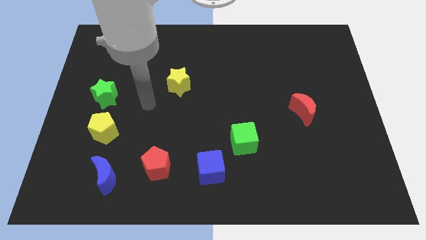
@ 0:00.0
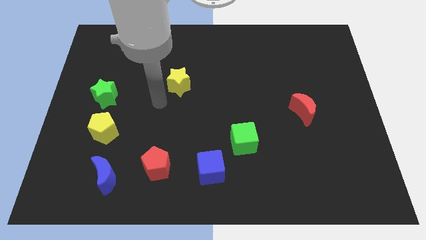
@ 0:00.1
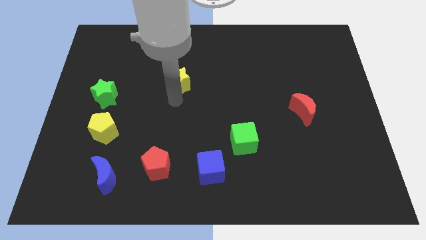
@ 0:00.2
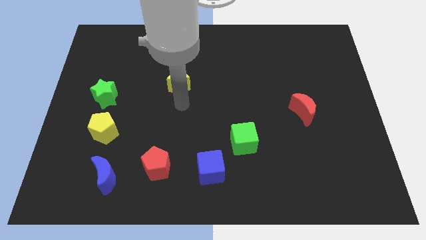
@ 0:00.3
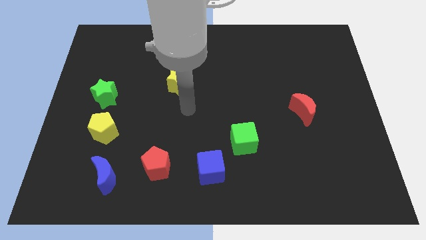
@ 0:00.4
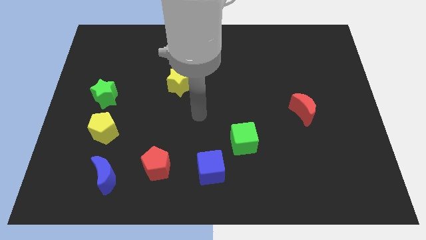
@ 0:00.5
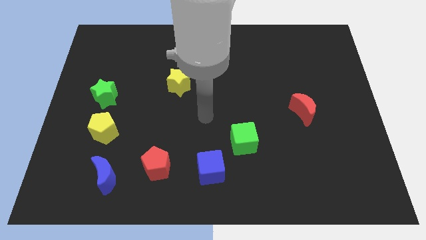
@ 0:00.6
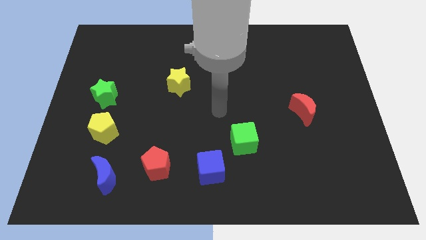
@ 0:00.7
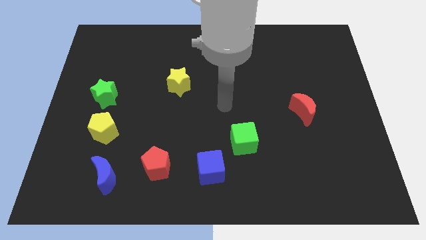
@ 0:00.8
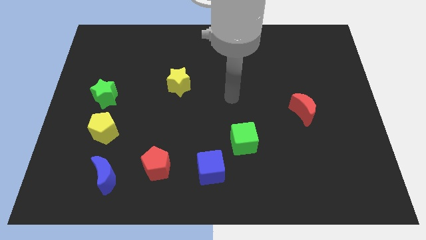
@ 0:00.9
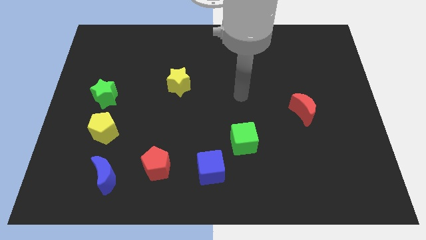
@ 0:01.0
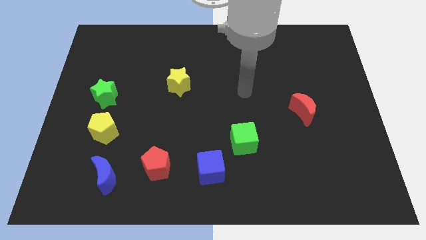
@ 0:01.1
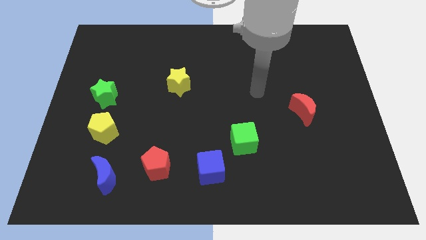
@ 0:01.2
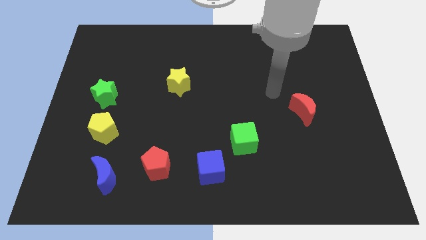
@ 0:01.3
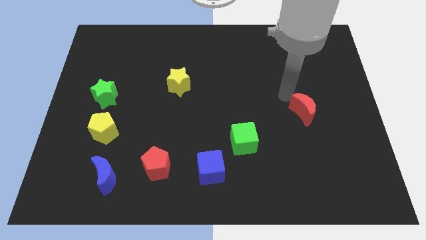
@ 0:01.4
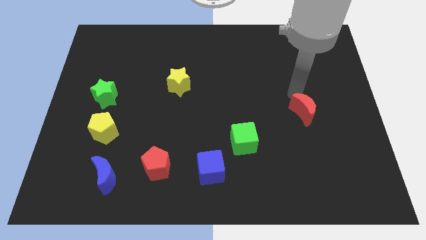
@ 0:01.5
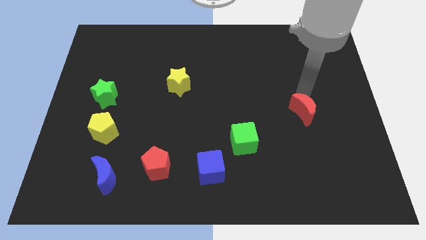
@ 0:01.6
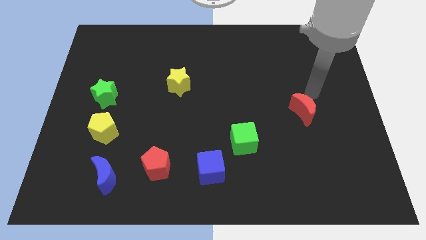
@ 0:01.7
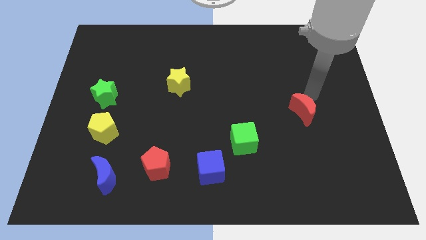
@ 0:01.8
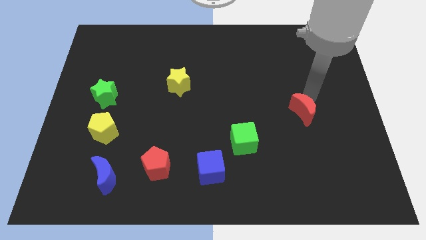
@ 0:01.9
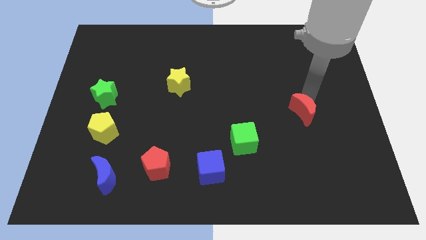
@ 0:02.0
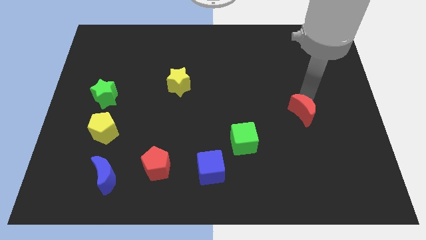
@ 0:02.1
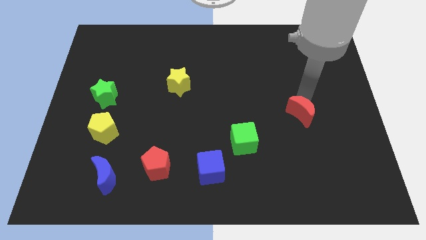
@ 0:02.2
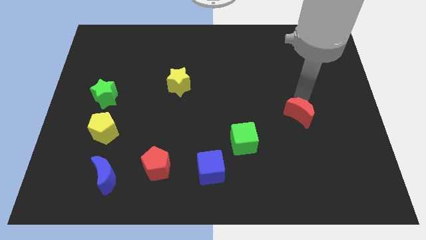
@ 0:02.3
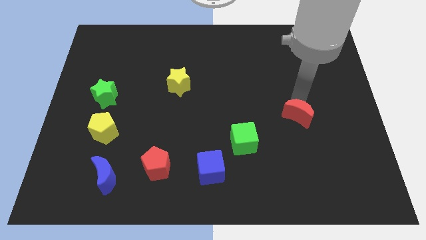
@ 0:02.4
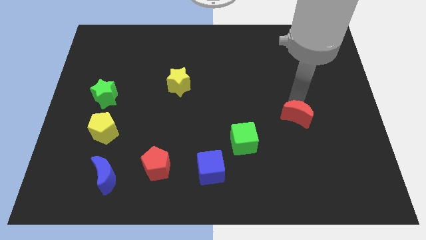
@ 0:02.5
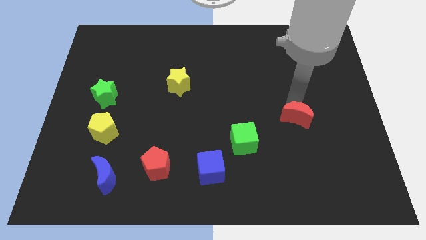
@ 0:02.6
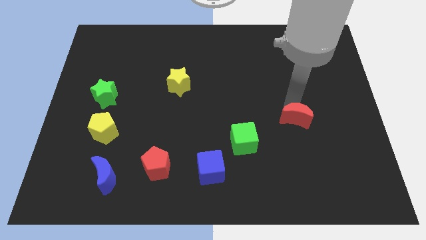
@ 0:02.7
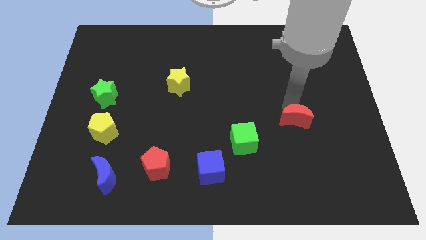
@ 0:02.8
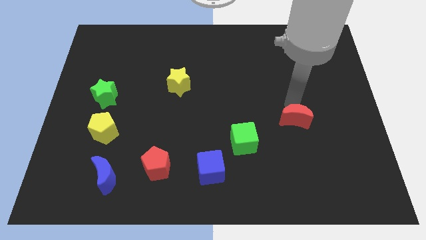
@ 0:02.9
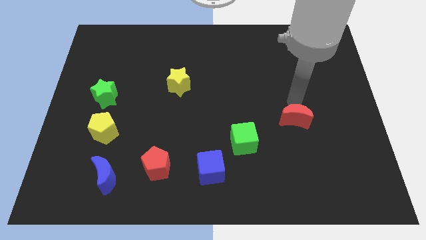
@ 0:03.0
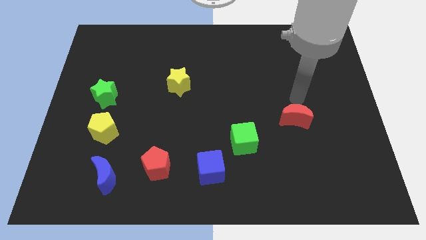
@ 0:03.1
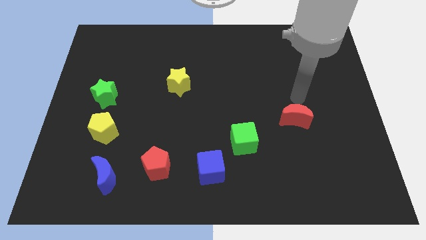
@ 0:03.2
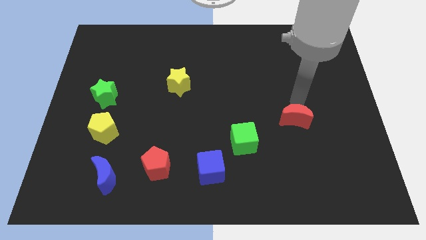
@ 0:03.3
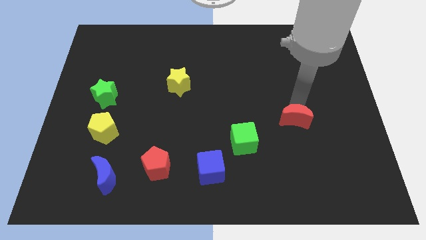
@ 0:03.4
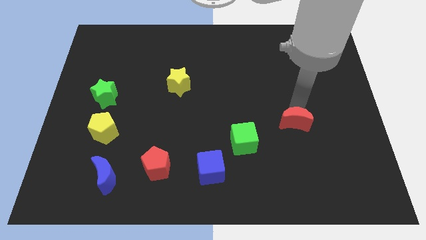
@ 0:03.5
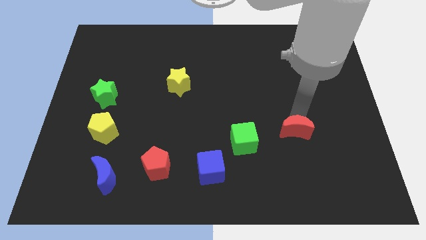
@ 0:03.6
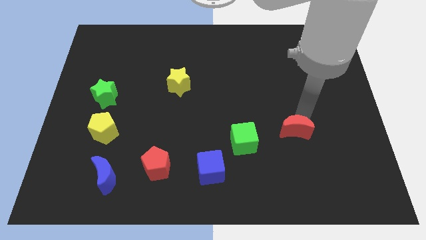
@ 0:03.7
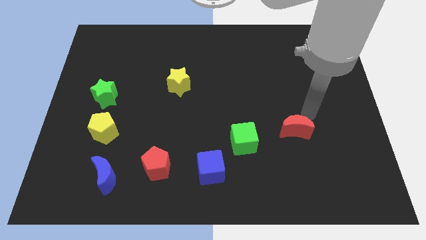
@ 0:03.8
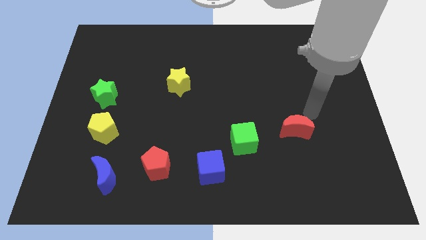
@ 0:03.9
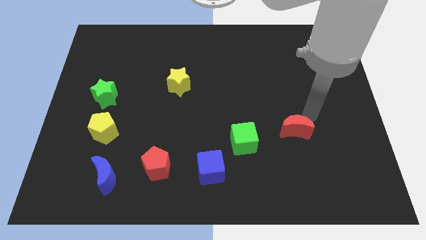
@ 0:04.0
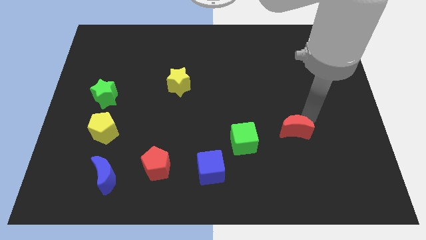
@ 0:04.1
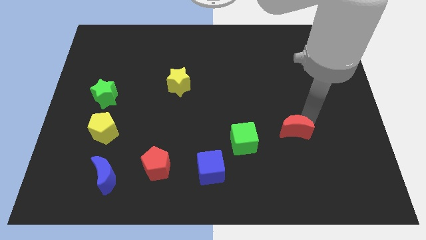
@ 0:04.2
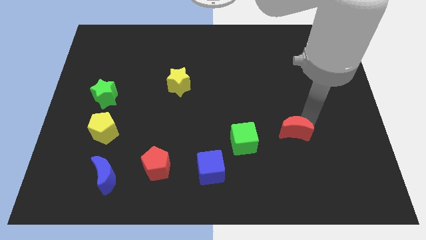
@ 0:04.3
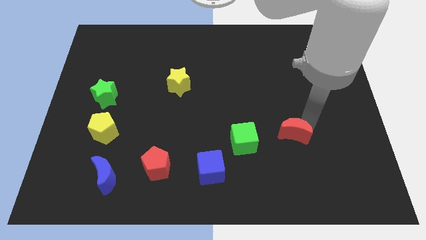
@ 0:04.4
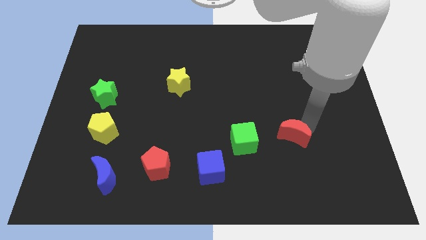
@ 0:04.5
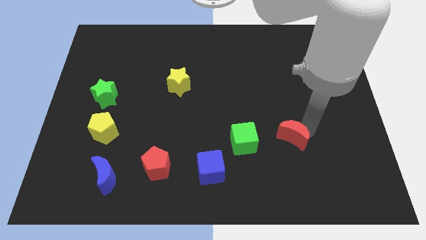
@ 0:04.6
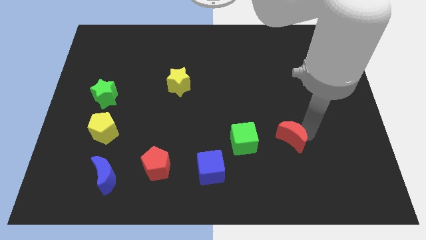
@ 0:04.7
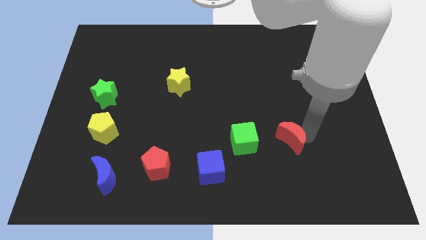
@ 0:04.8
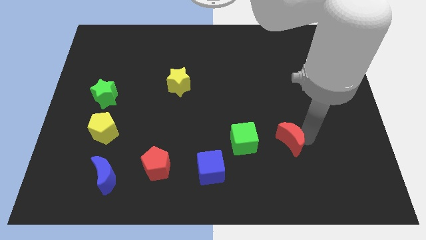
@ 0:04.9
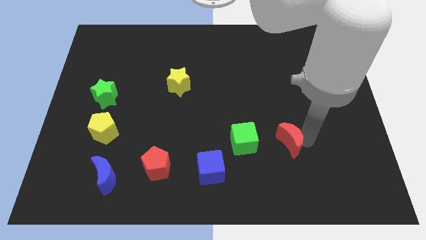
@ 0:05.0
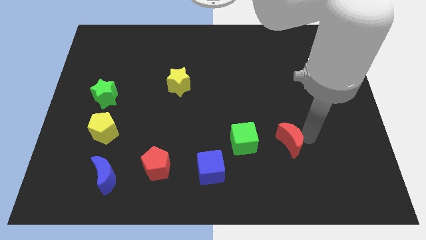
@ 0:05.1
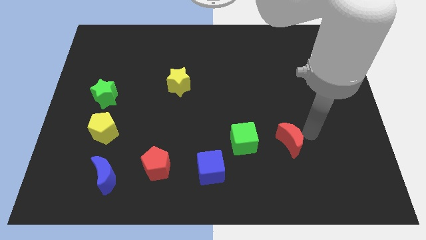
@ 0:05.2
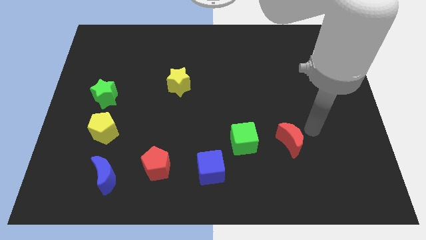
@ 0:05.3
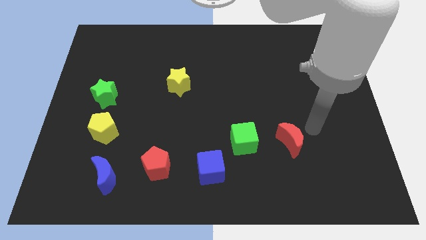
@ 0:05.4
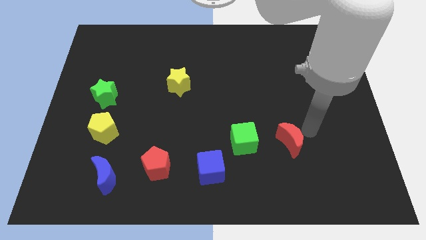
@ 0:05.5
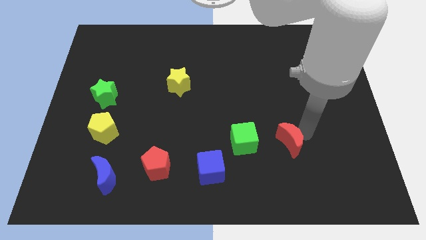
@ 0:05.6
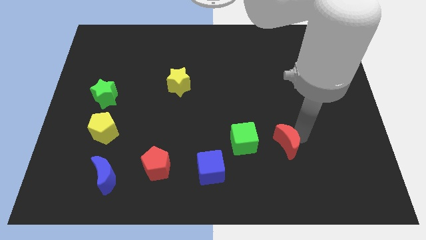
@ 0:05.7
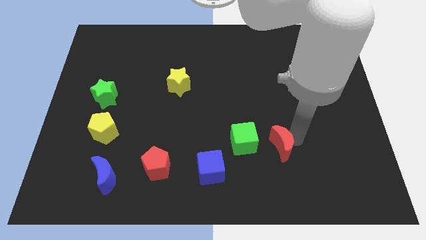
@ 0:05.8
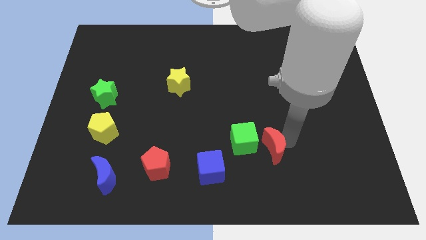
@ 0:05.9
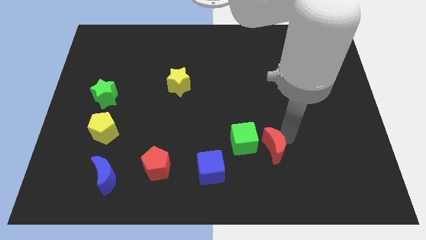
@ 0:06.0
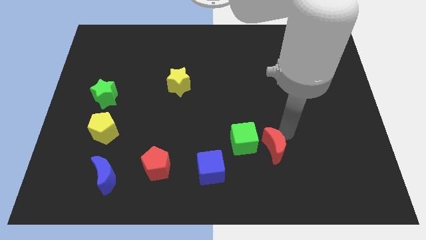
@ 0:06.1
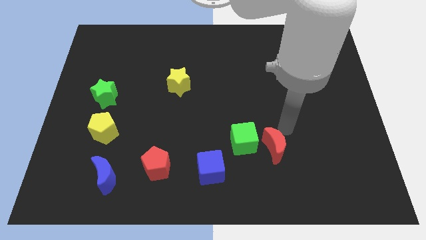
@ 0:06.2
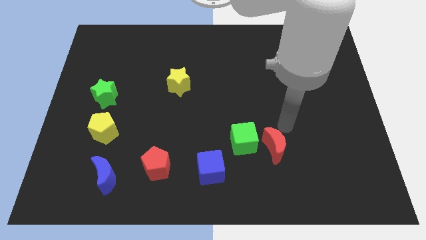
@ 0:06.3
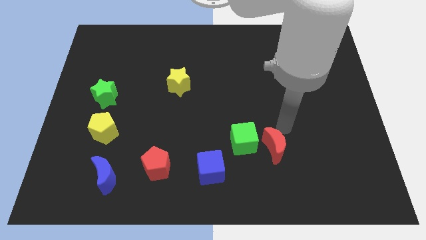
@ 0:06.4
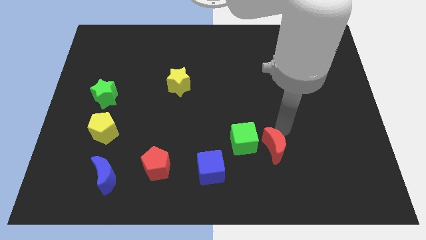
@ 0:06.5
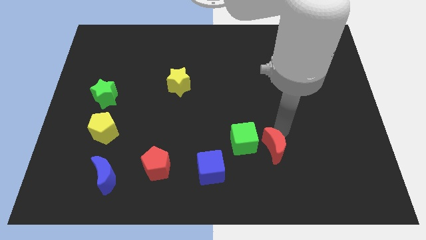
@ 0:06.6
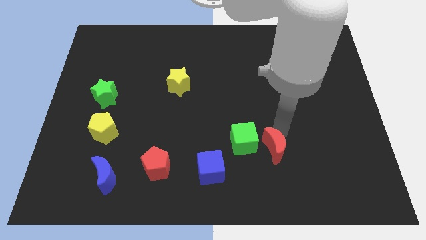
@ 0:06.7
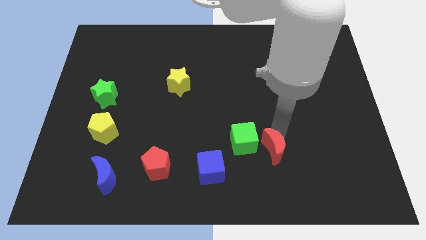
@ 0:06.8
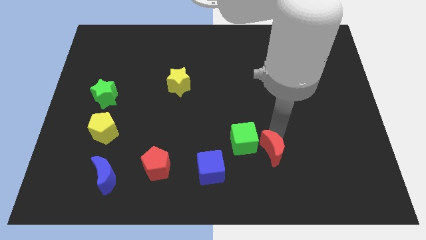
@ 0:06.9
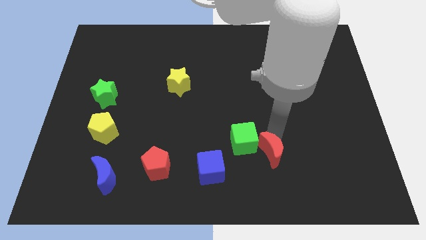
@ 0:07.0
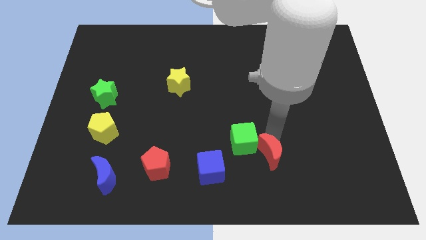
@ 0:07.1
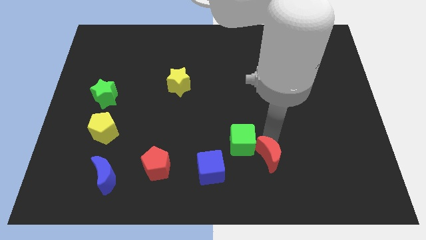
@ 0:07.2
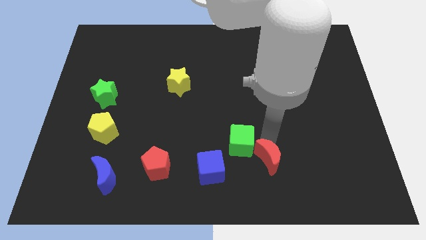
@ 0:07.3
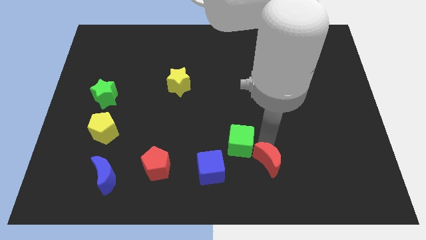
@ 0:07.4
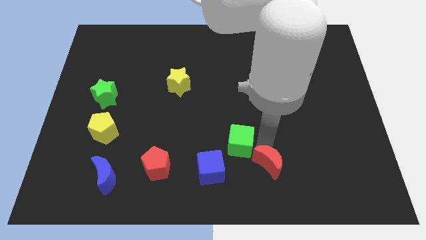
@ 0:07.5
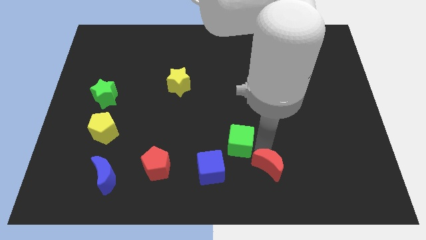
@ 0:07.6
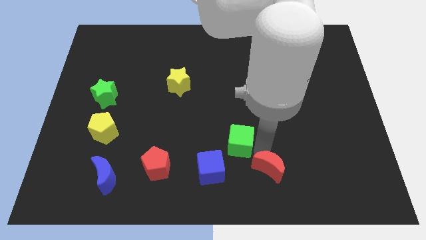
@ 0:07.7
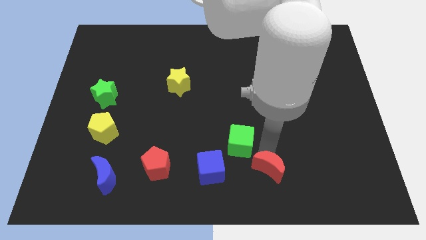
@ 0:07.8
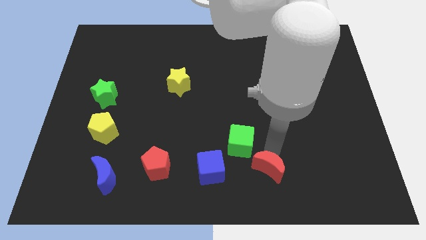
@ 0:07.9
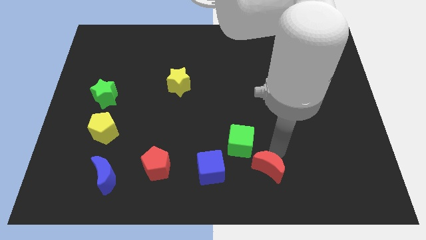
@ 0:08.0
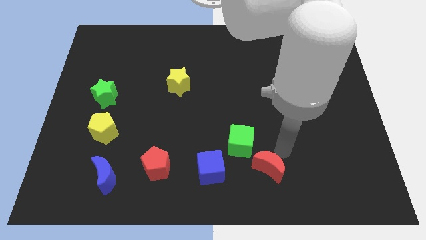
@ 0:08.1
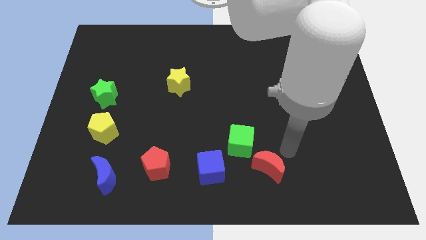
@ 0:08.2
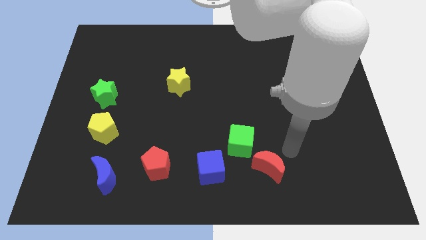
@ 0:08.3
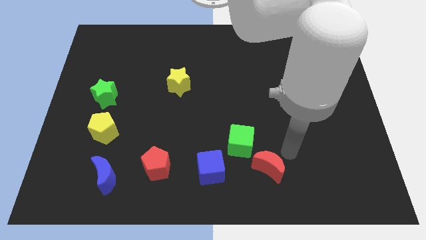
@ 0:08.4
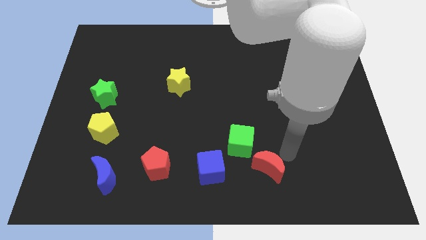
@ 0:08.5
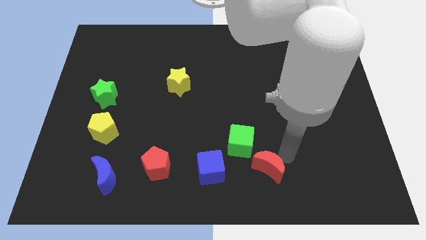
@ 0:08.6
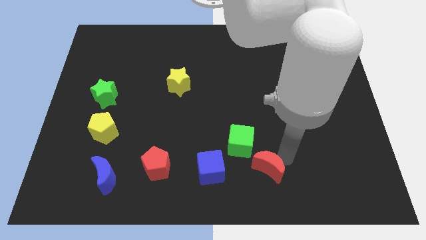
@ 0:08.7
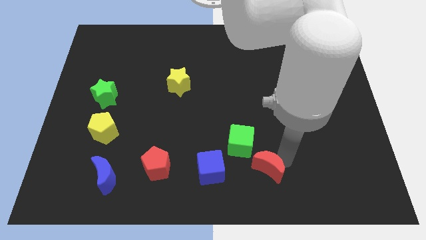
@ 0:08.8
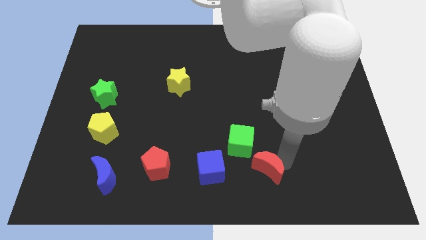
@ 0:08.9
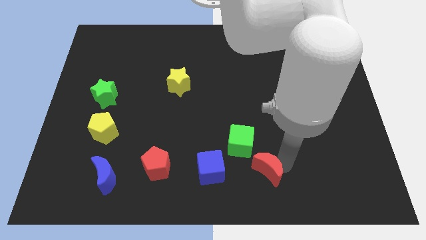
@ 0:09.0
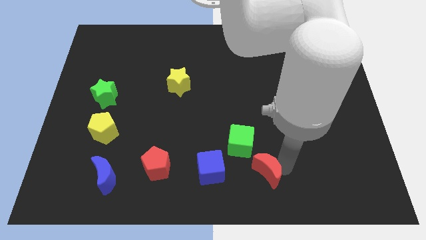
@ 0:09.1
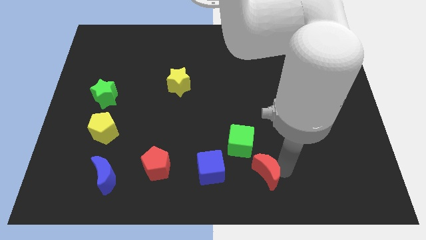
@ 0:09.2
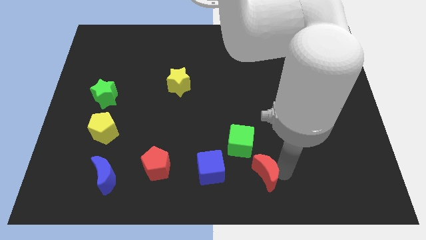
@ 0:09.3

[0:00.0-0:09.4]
put the red moon to the bottom
